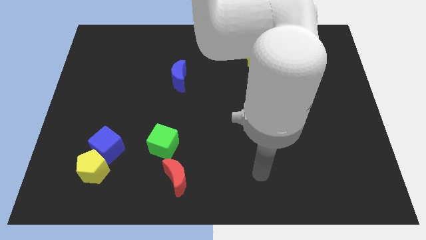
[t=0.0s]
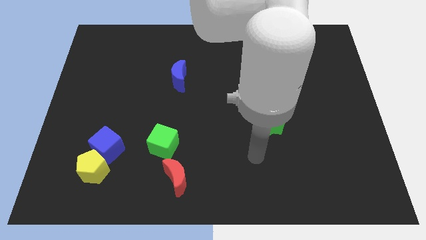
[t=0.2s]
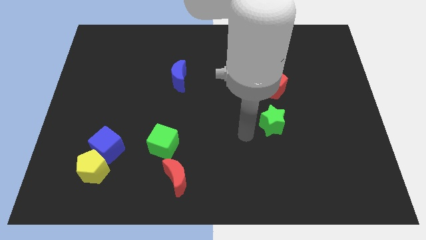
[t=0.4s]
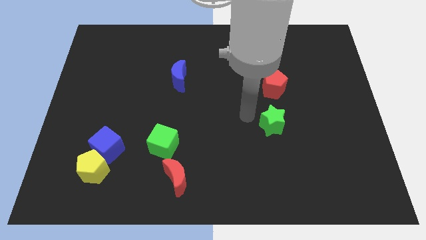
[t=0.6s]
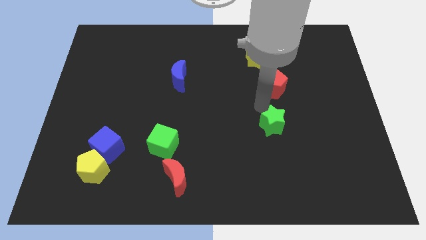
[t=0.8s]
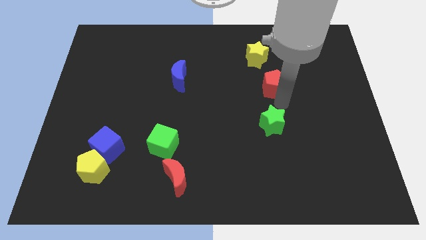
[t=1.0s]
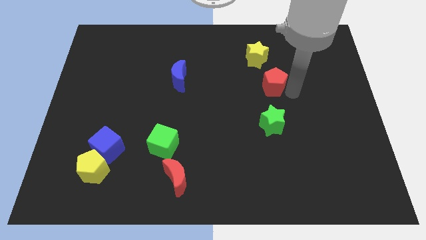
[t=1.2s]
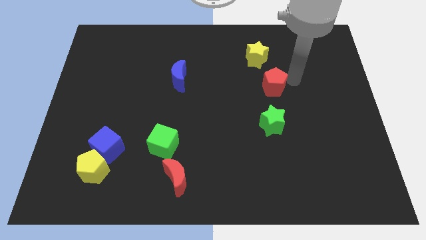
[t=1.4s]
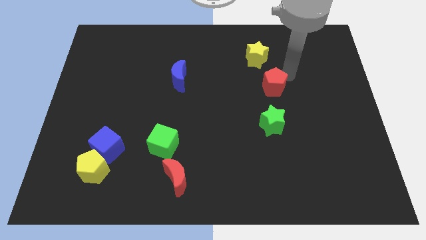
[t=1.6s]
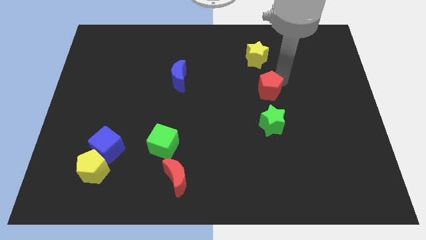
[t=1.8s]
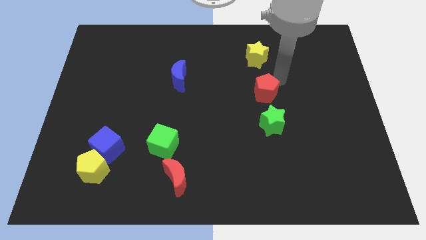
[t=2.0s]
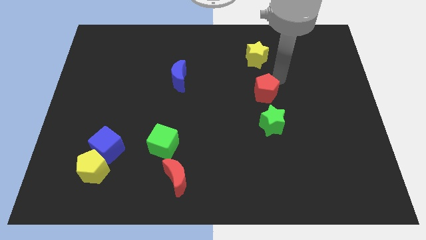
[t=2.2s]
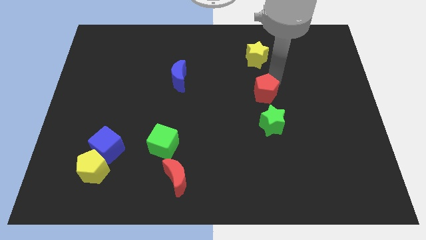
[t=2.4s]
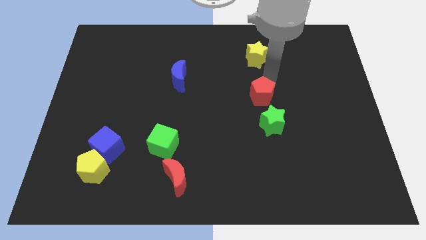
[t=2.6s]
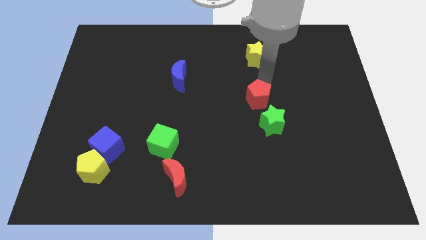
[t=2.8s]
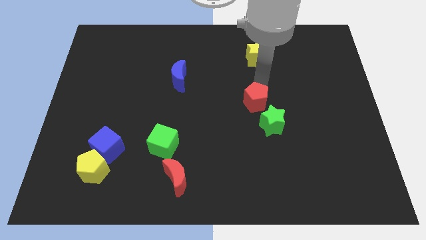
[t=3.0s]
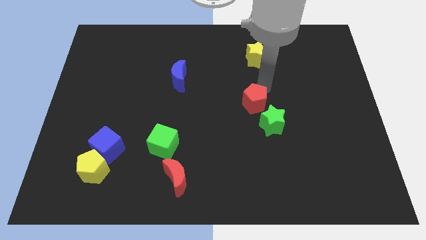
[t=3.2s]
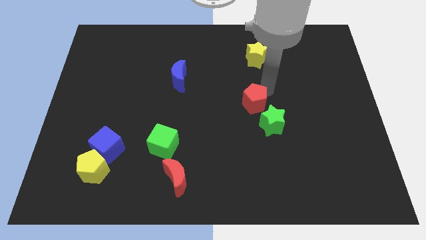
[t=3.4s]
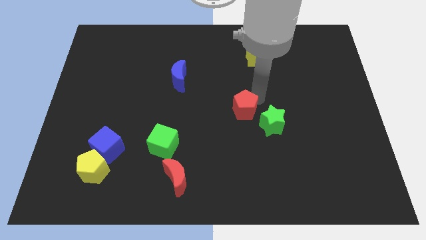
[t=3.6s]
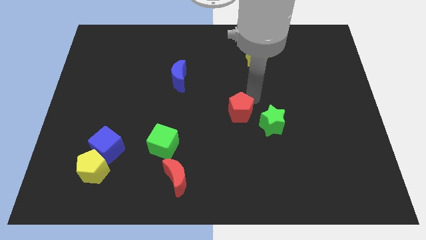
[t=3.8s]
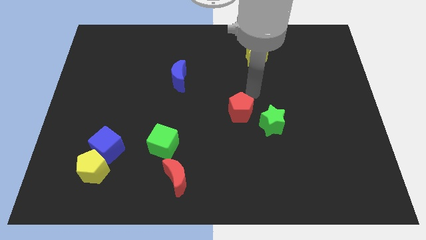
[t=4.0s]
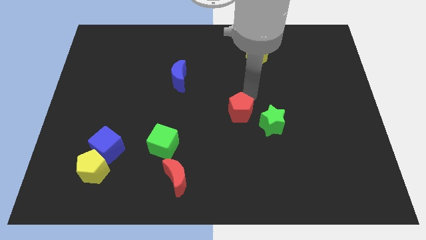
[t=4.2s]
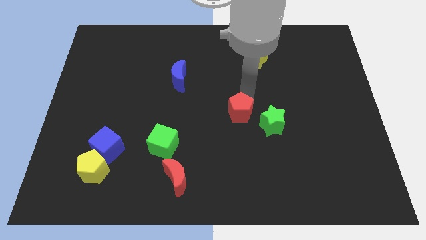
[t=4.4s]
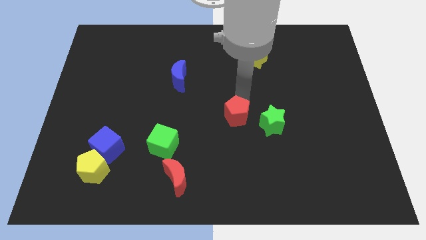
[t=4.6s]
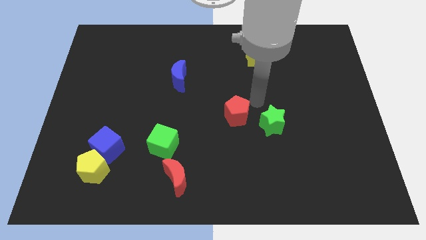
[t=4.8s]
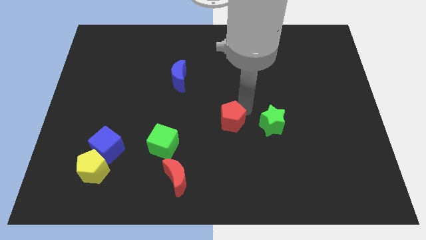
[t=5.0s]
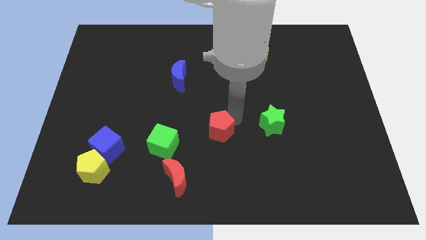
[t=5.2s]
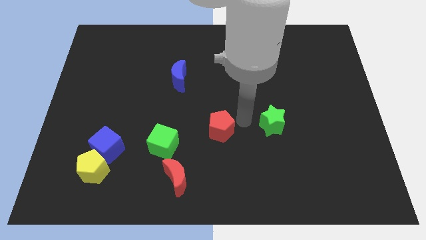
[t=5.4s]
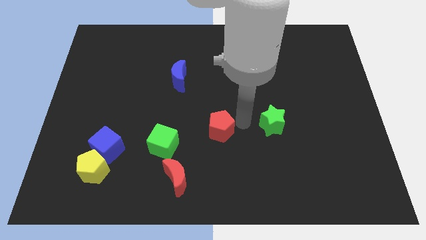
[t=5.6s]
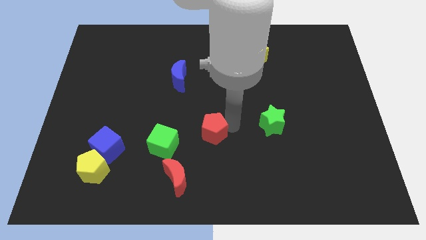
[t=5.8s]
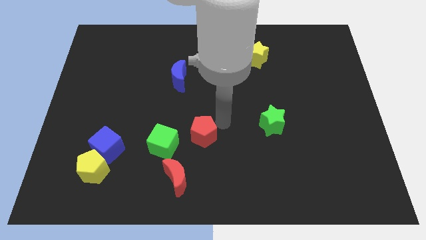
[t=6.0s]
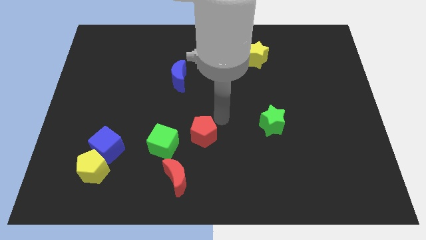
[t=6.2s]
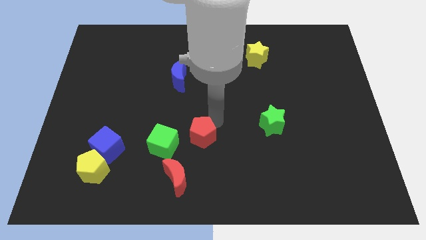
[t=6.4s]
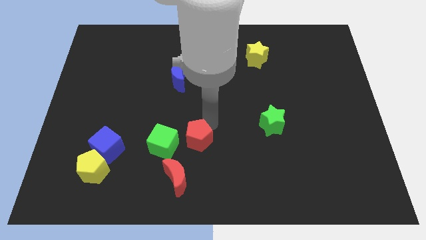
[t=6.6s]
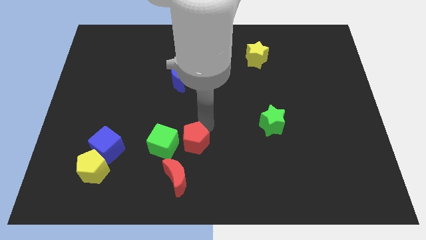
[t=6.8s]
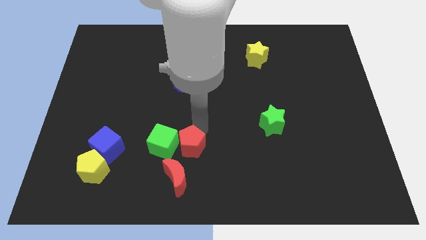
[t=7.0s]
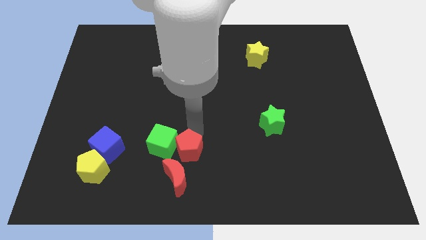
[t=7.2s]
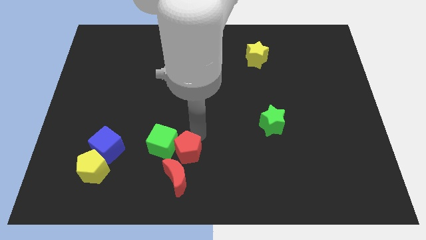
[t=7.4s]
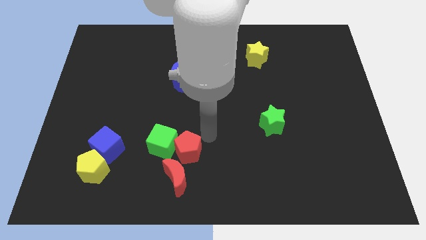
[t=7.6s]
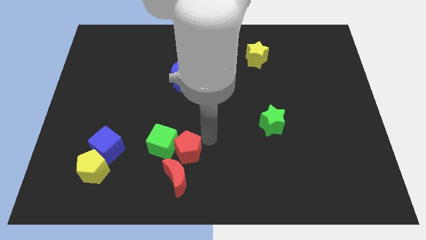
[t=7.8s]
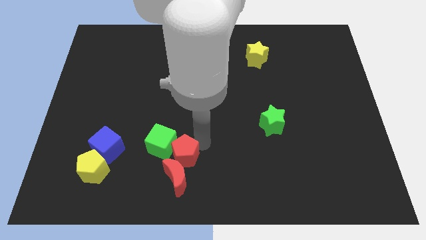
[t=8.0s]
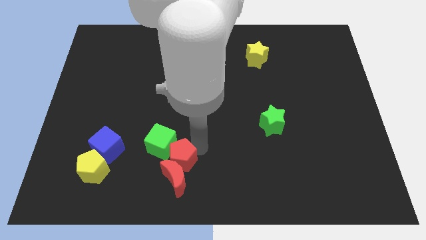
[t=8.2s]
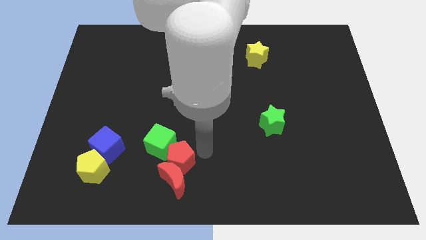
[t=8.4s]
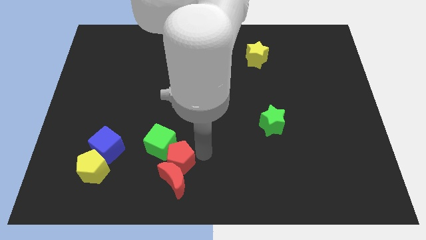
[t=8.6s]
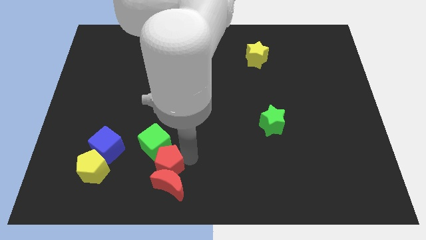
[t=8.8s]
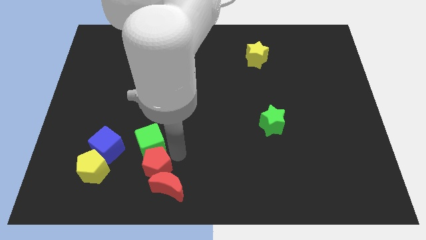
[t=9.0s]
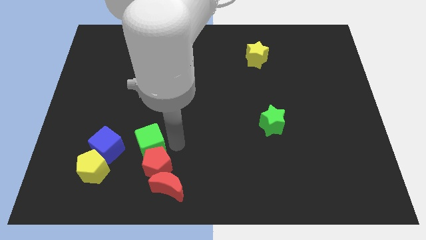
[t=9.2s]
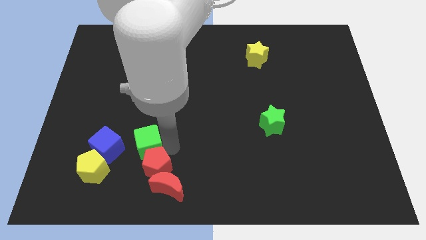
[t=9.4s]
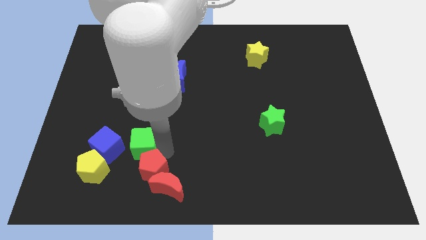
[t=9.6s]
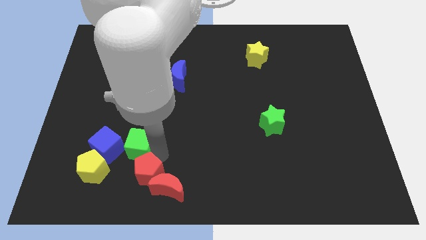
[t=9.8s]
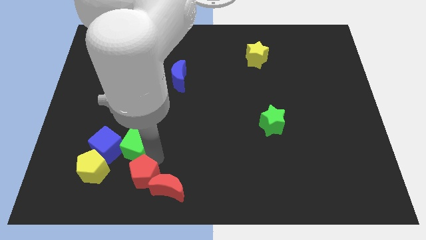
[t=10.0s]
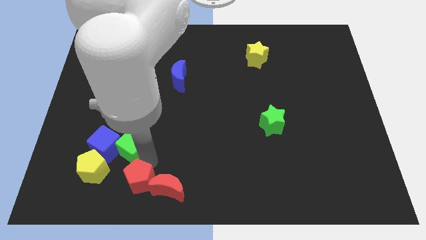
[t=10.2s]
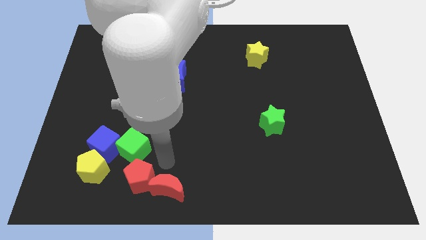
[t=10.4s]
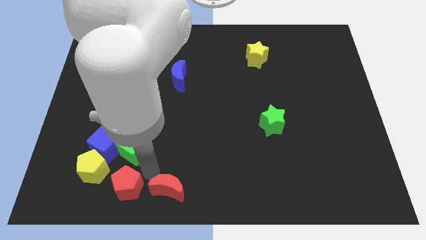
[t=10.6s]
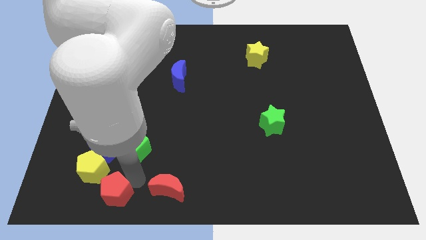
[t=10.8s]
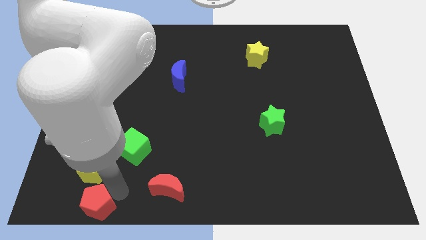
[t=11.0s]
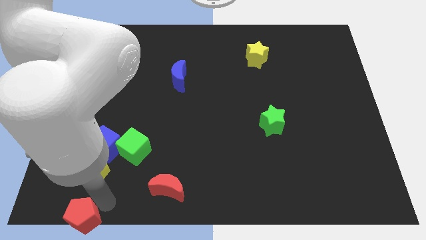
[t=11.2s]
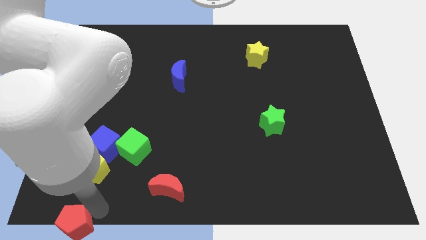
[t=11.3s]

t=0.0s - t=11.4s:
put the red pentagon to the bottom left
